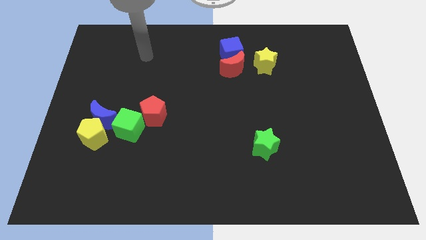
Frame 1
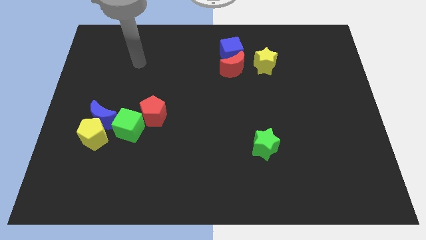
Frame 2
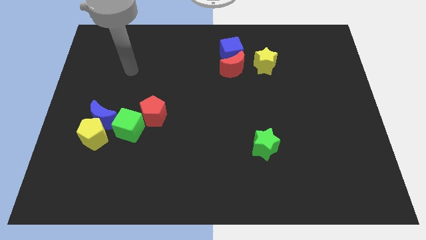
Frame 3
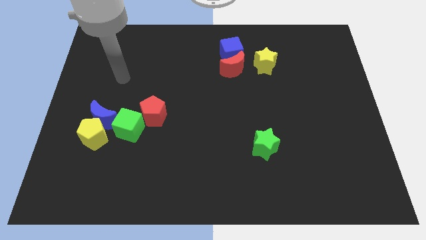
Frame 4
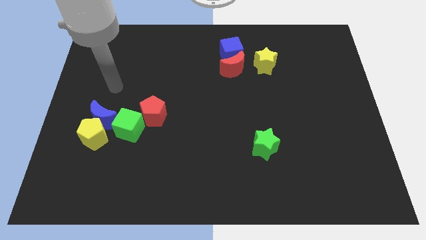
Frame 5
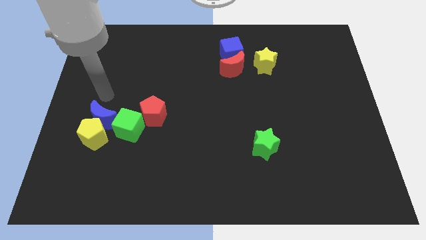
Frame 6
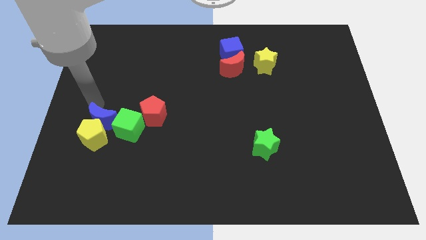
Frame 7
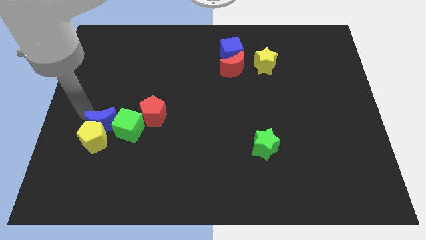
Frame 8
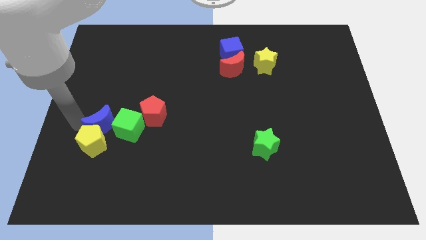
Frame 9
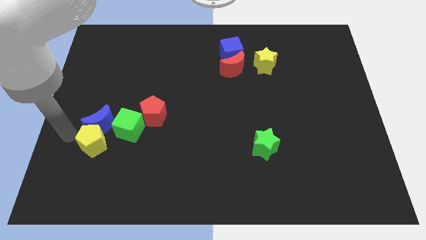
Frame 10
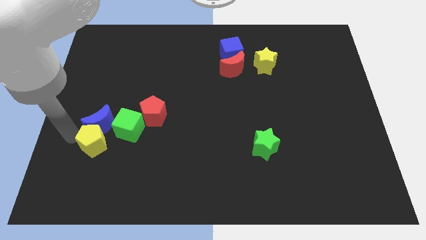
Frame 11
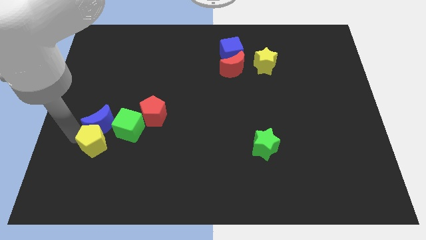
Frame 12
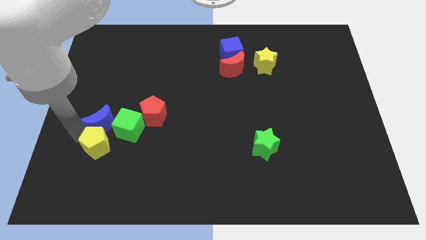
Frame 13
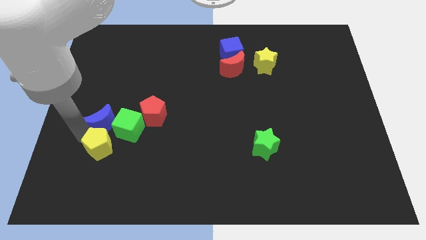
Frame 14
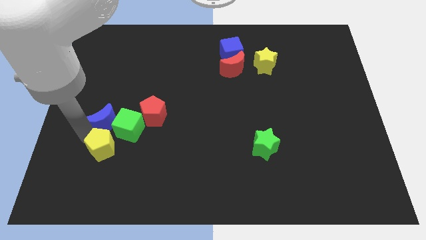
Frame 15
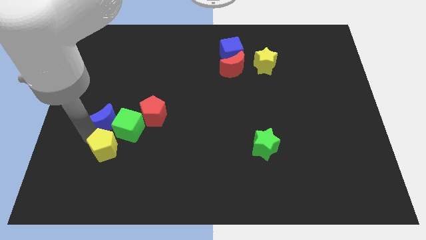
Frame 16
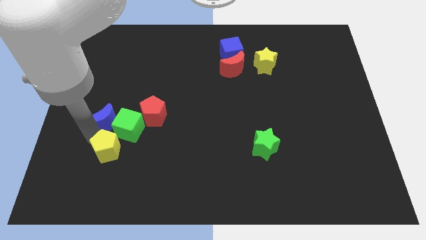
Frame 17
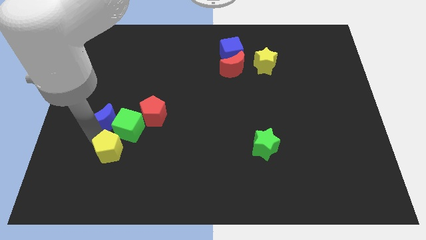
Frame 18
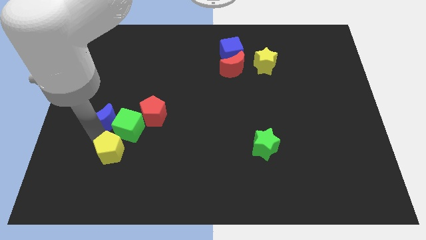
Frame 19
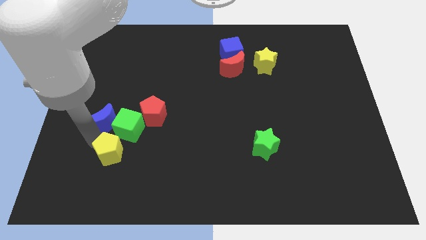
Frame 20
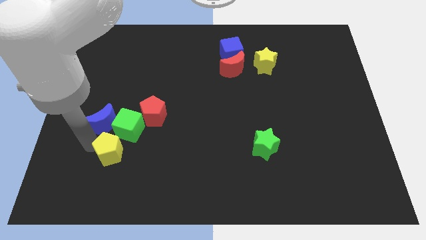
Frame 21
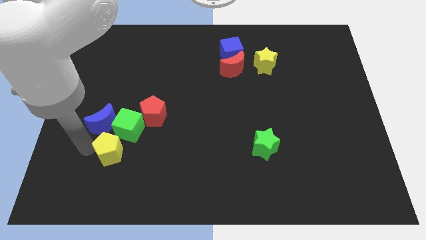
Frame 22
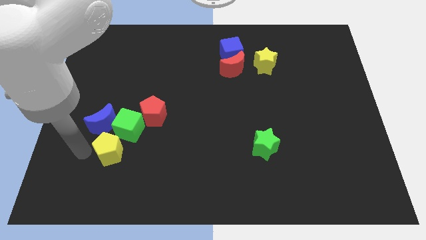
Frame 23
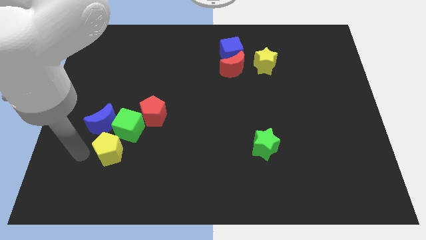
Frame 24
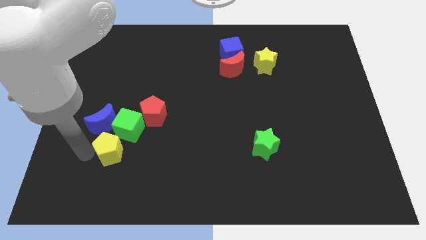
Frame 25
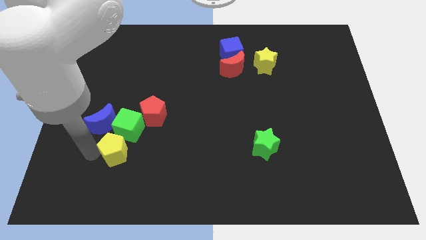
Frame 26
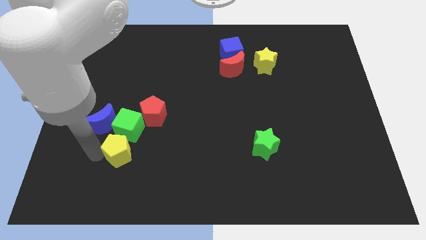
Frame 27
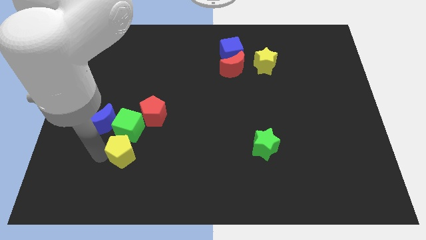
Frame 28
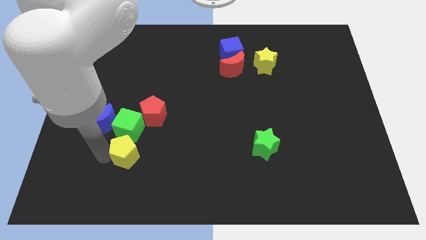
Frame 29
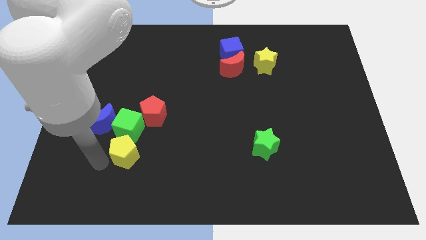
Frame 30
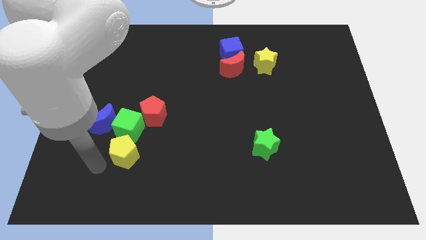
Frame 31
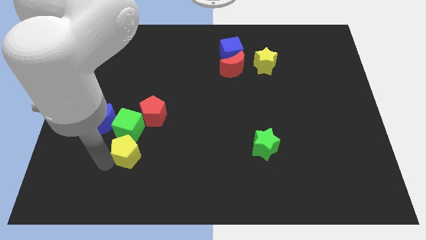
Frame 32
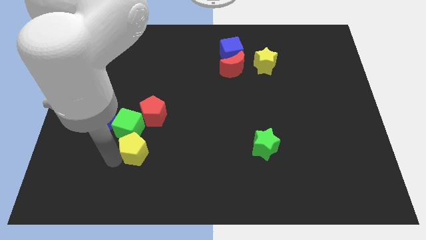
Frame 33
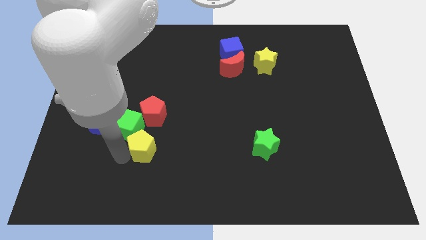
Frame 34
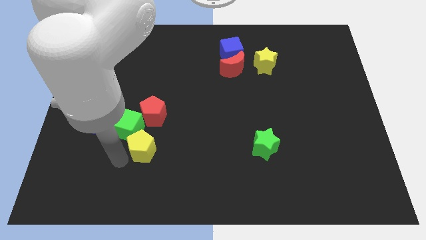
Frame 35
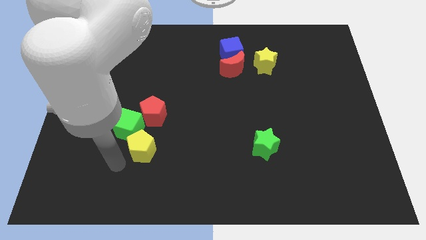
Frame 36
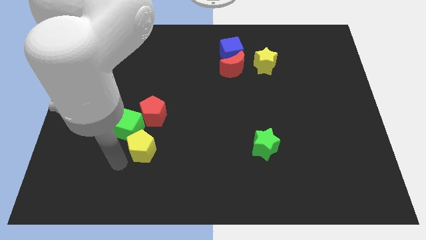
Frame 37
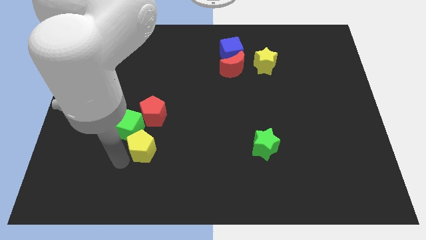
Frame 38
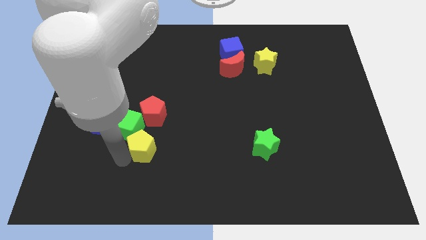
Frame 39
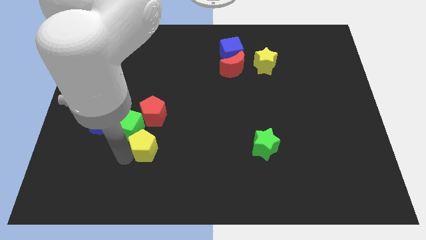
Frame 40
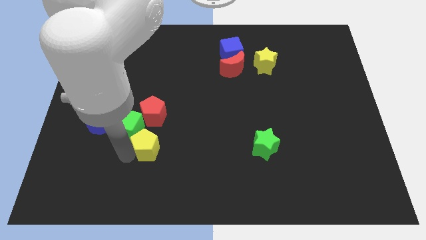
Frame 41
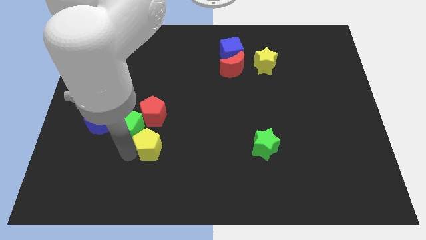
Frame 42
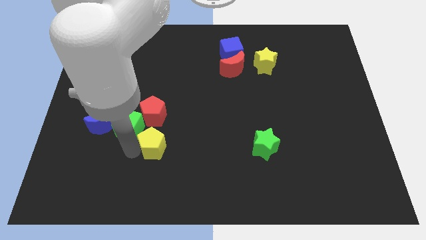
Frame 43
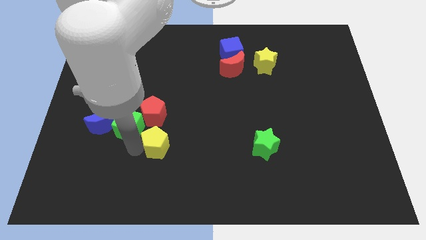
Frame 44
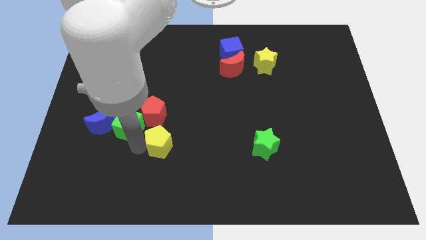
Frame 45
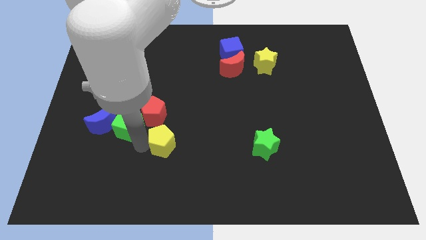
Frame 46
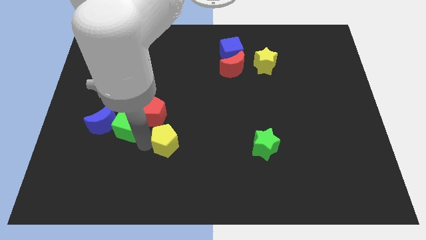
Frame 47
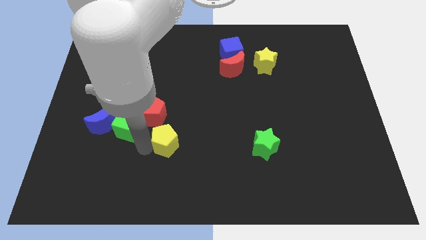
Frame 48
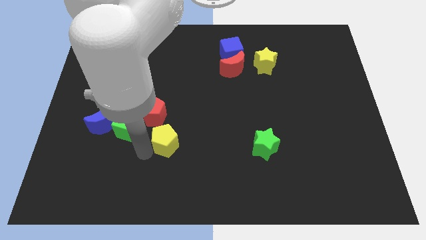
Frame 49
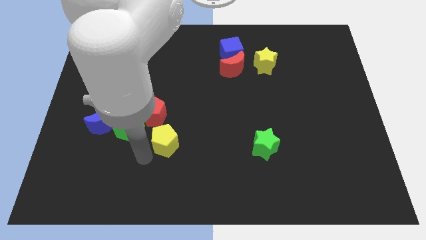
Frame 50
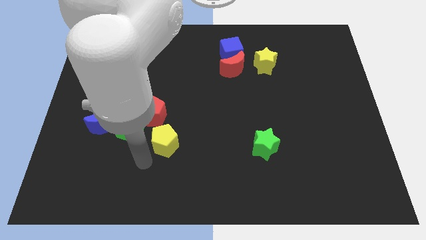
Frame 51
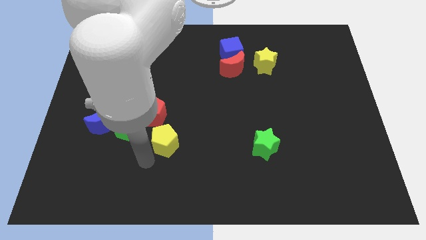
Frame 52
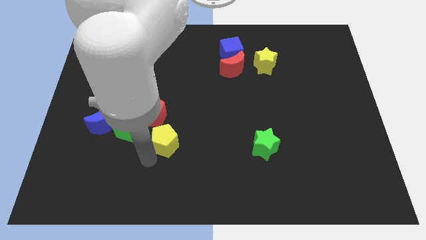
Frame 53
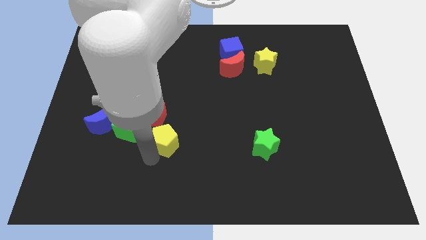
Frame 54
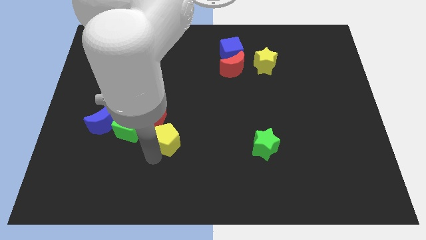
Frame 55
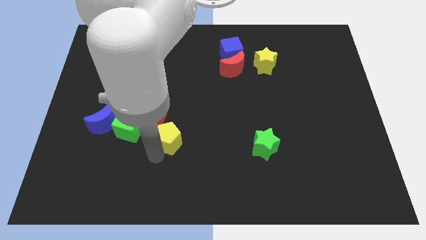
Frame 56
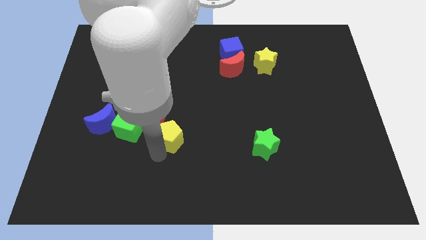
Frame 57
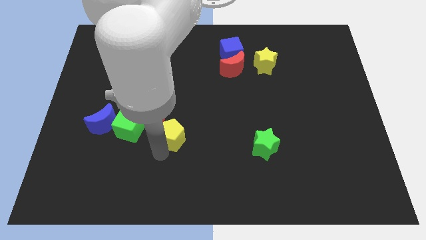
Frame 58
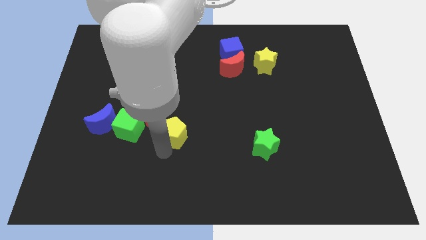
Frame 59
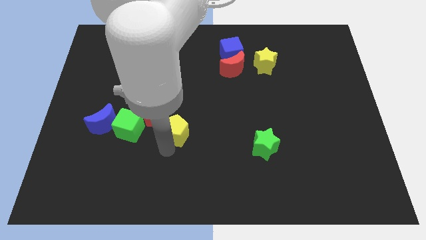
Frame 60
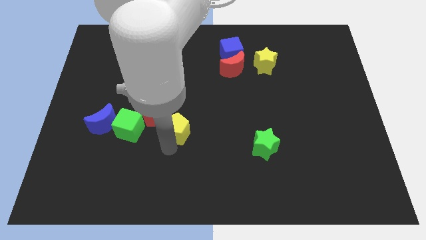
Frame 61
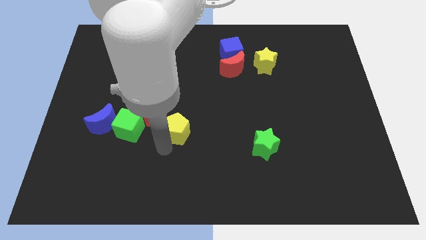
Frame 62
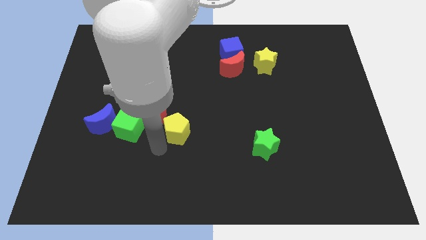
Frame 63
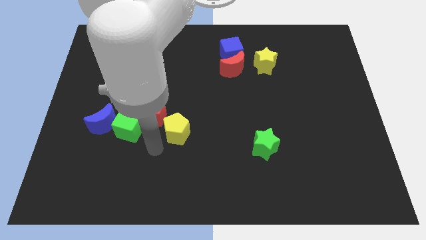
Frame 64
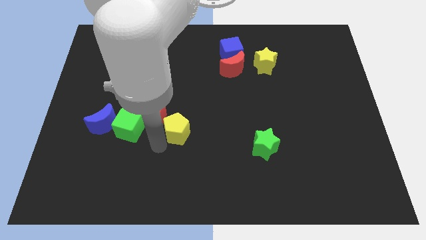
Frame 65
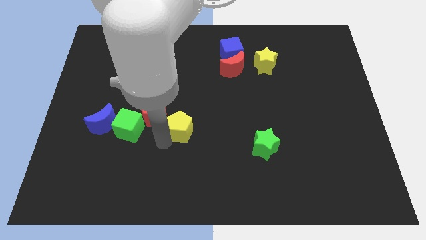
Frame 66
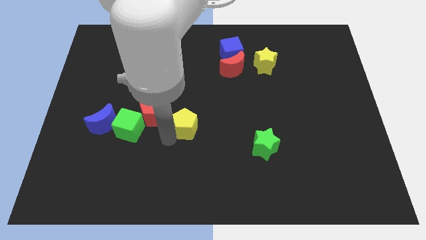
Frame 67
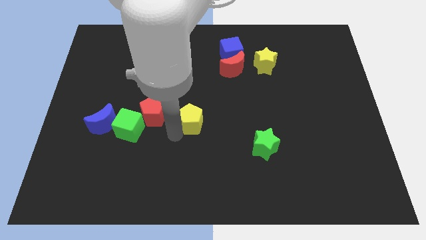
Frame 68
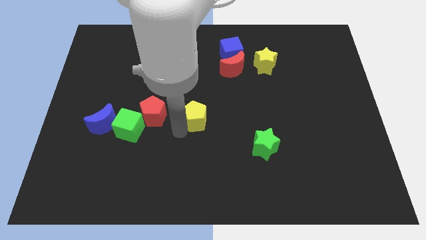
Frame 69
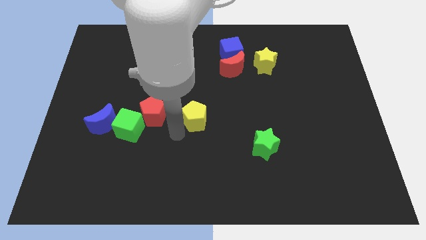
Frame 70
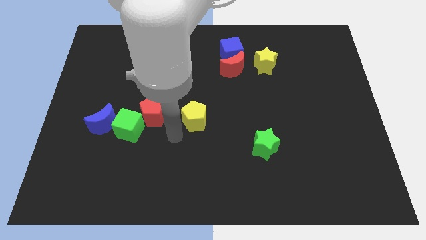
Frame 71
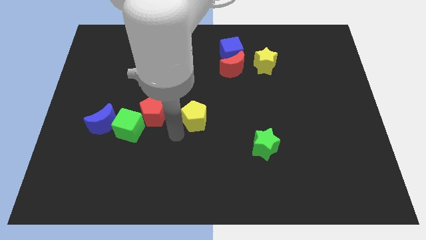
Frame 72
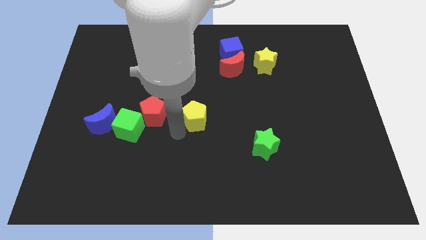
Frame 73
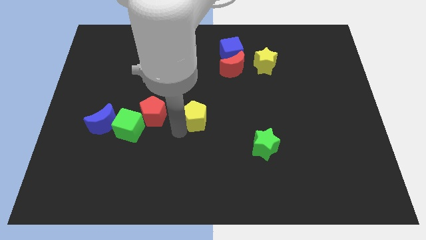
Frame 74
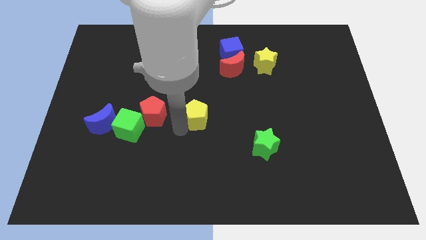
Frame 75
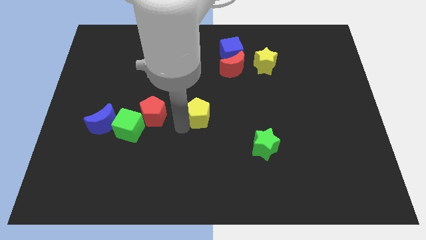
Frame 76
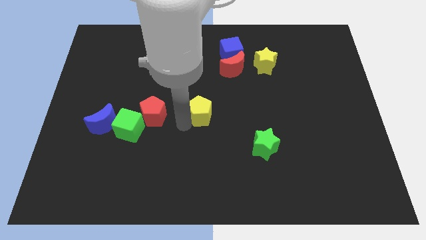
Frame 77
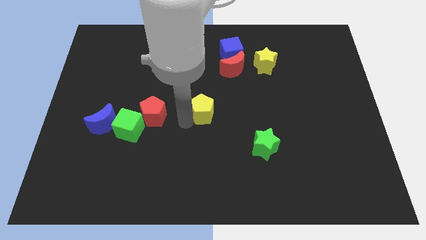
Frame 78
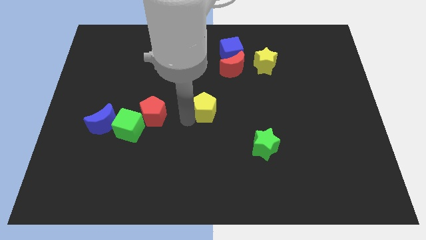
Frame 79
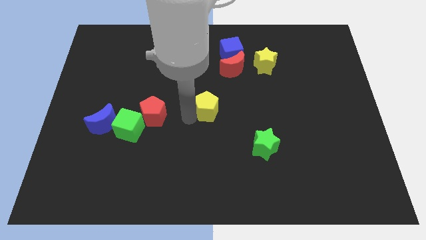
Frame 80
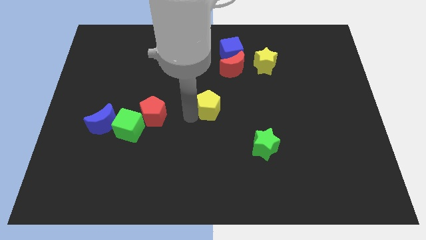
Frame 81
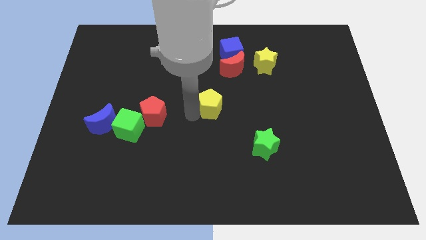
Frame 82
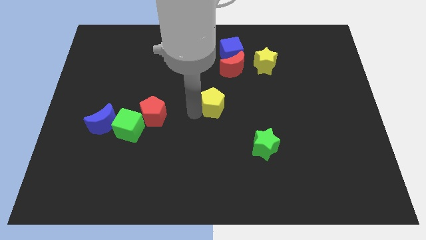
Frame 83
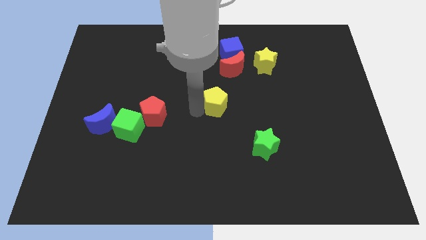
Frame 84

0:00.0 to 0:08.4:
push the yellow pentagon below the red moon
